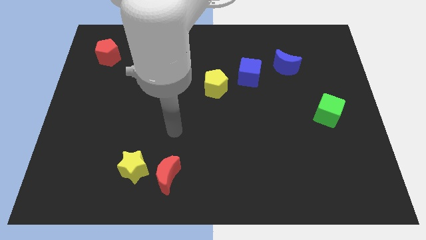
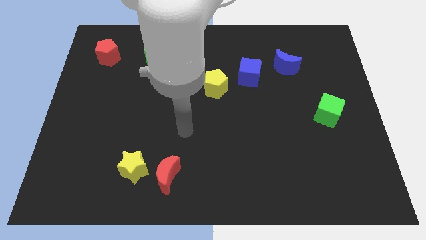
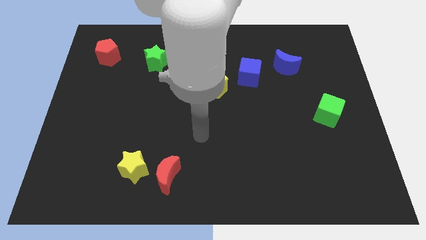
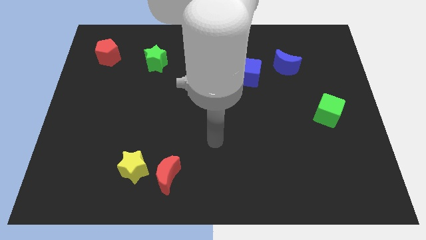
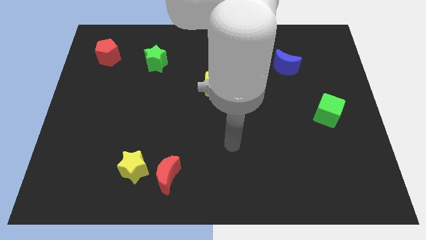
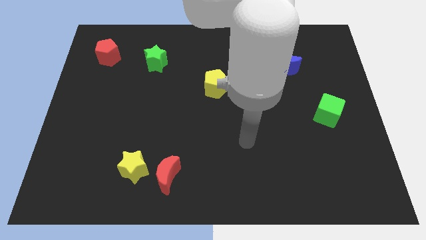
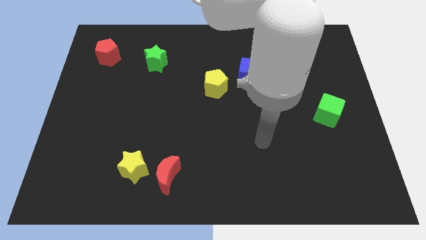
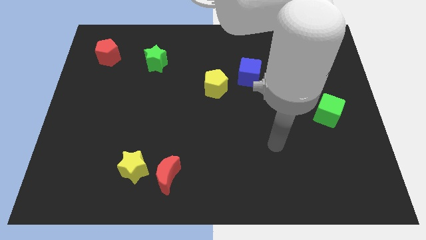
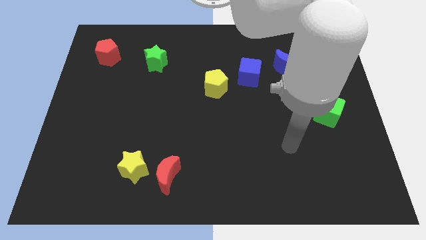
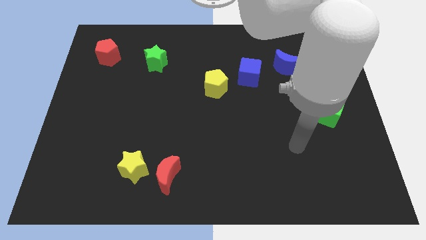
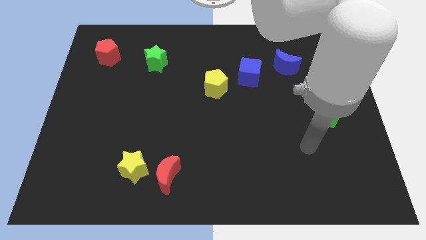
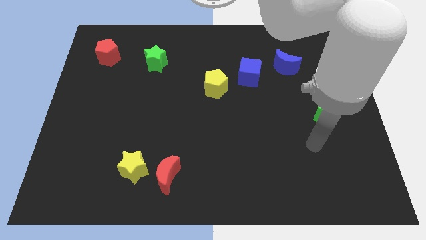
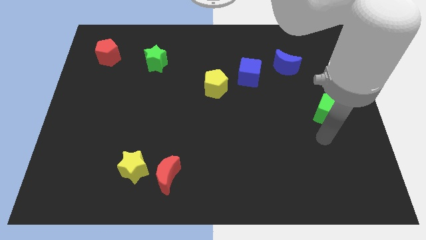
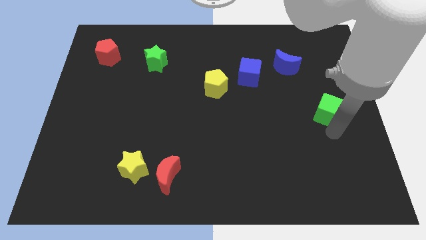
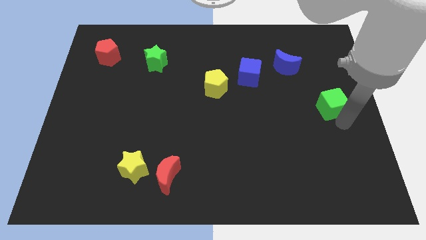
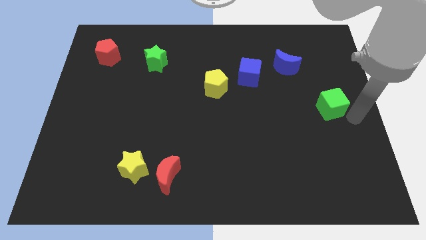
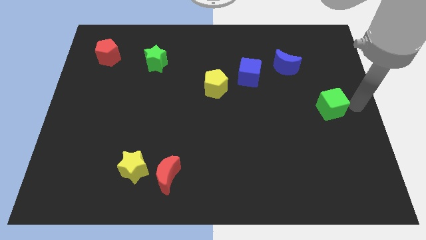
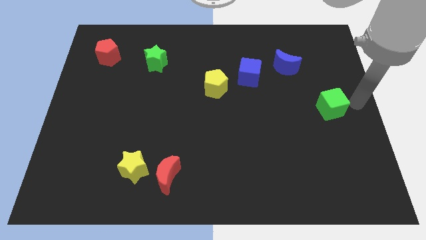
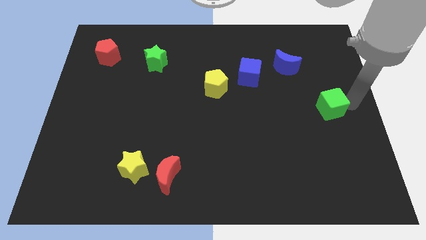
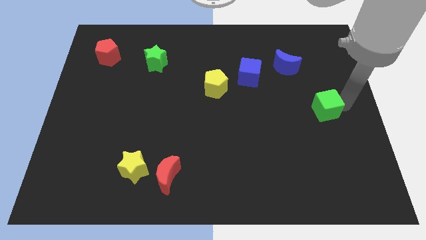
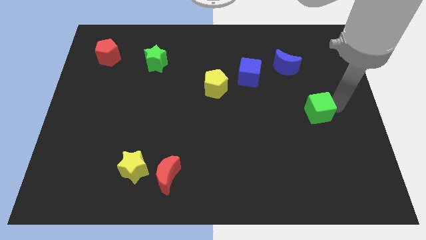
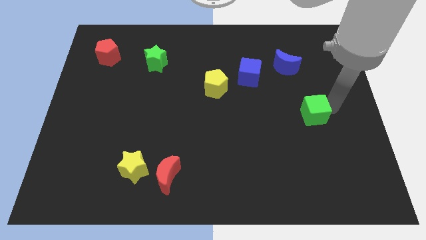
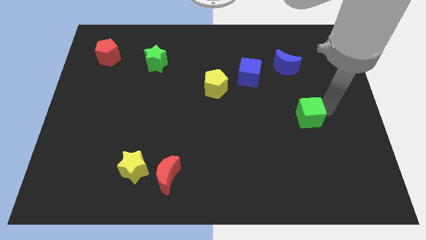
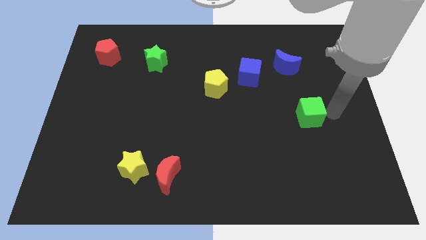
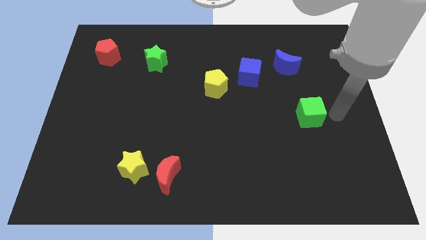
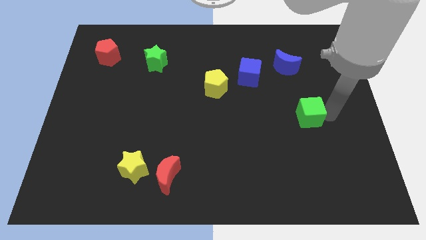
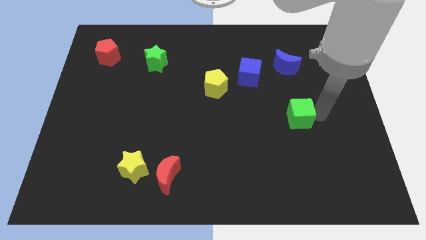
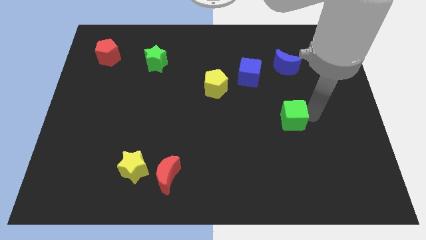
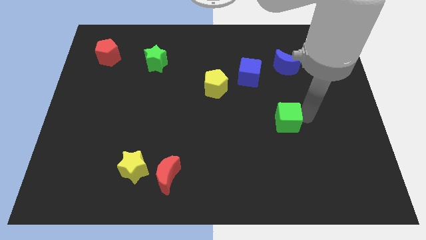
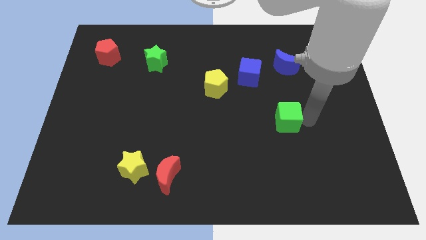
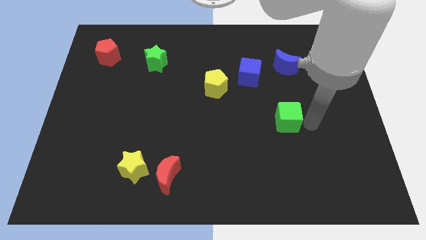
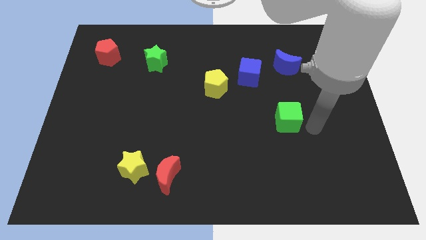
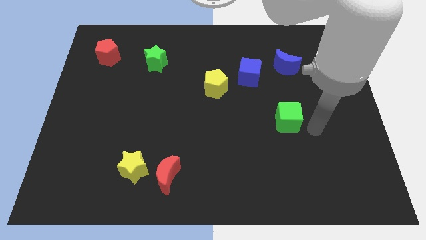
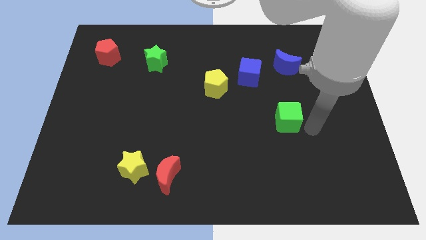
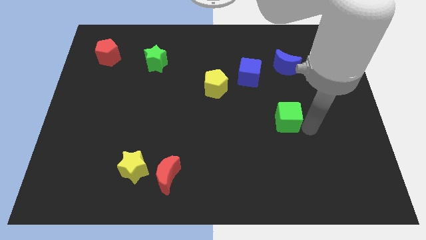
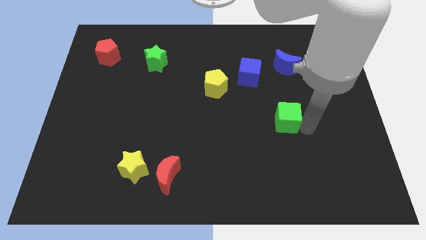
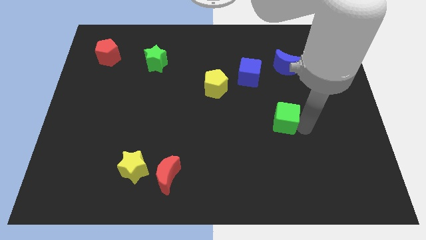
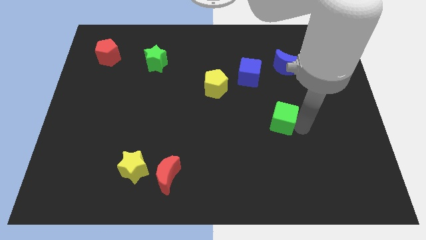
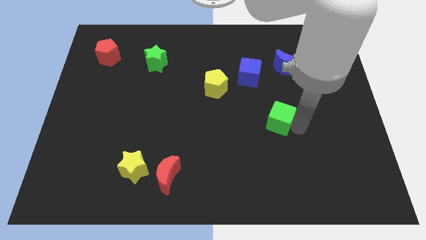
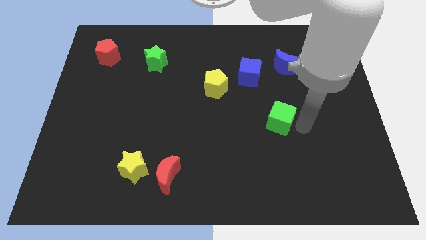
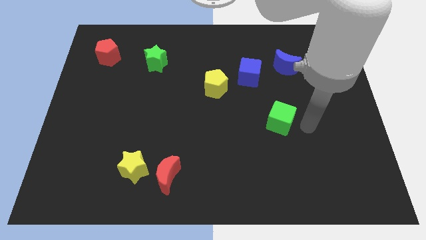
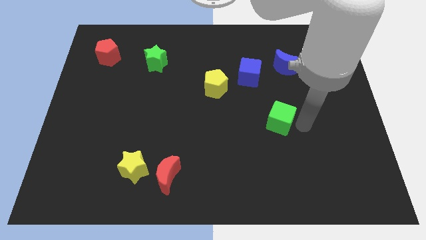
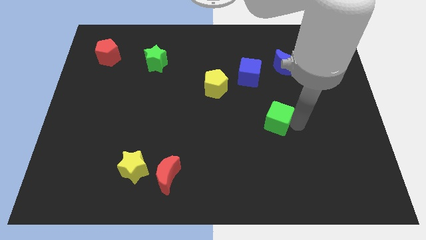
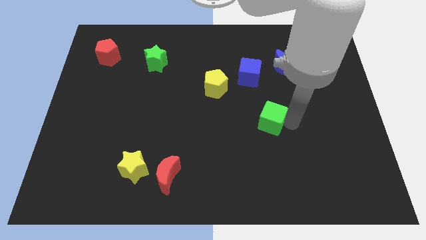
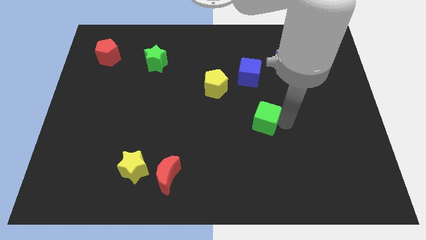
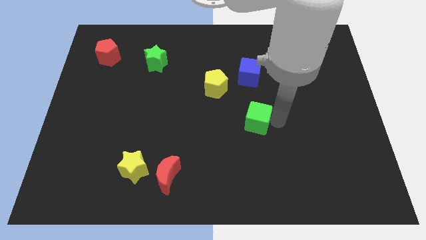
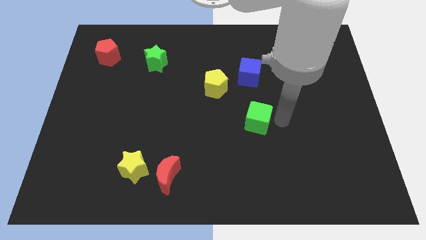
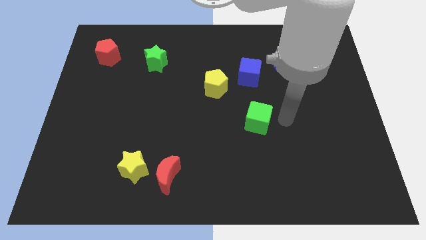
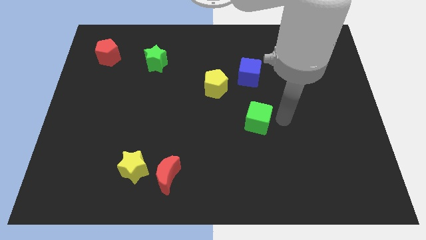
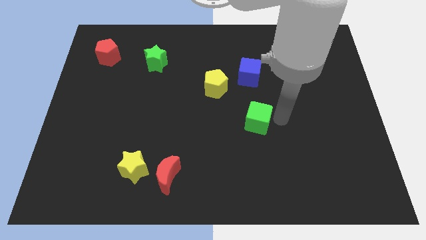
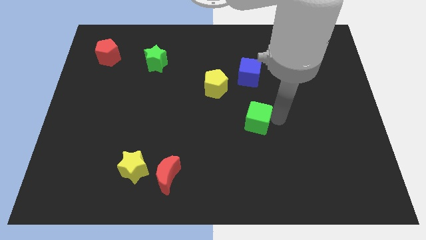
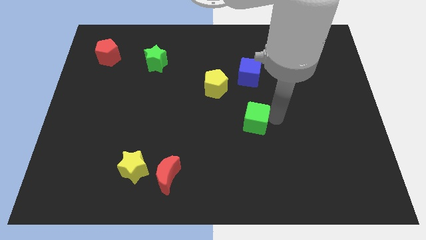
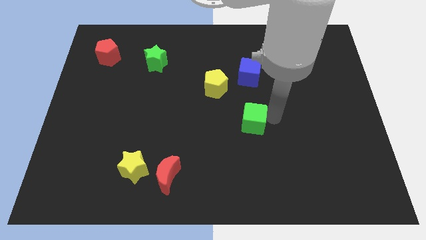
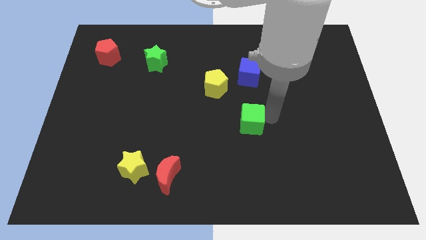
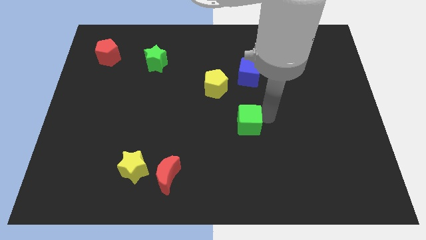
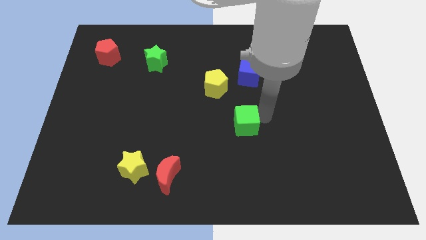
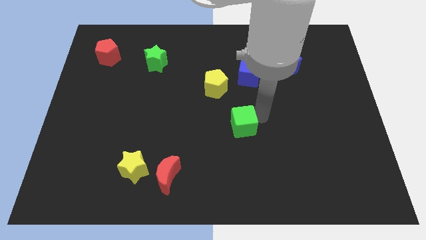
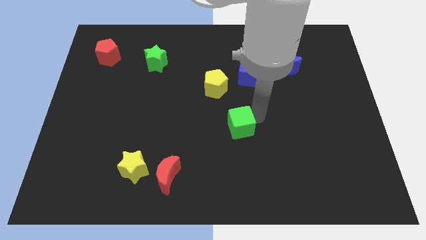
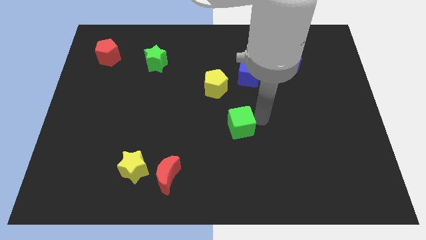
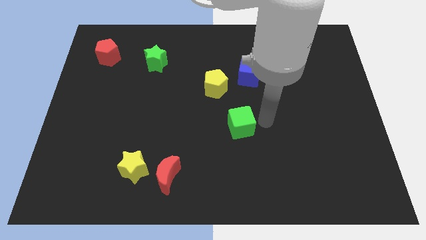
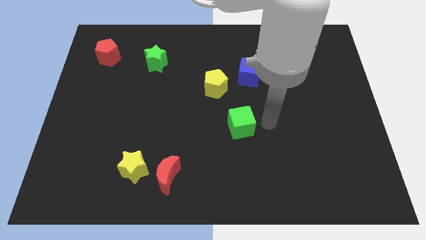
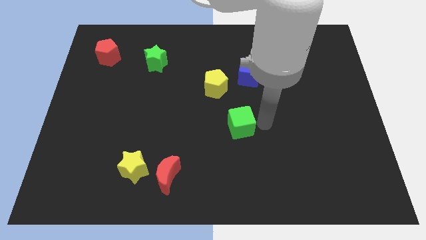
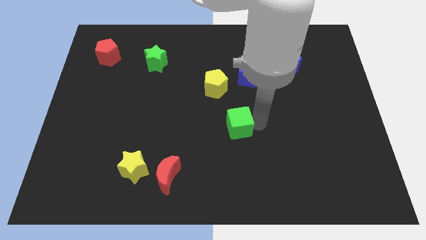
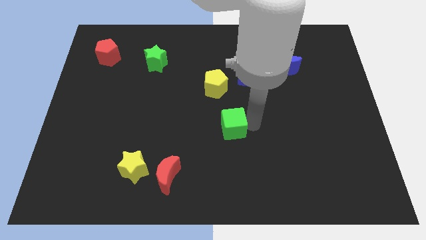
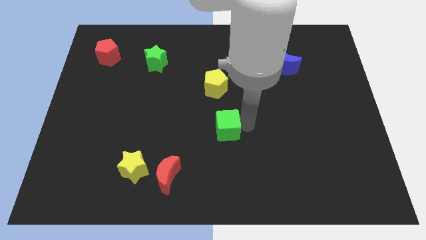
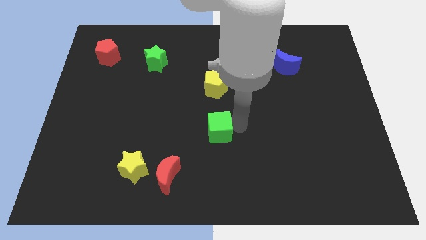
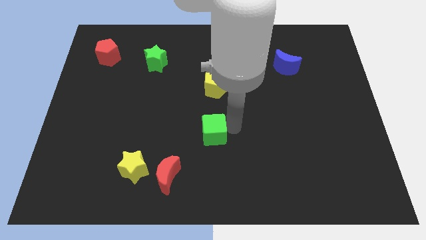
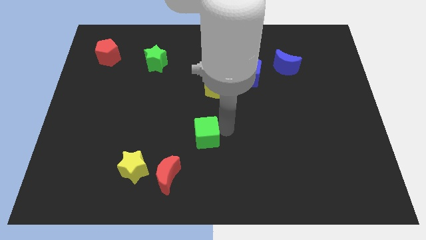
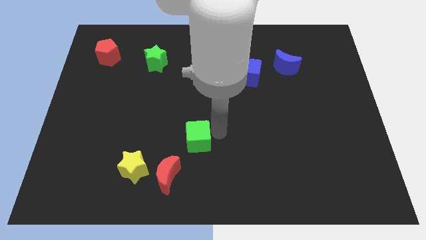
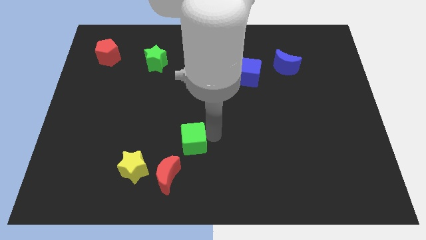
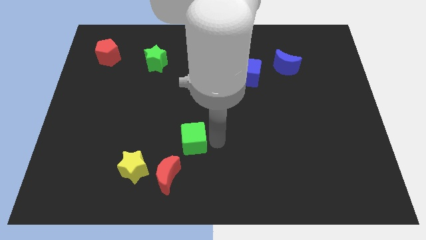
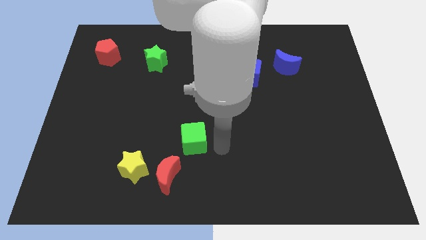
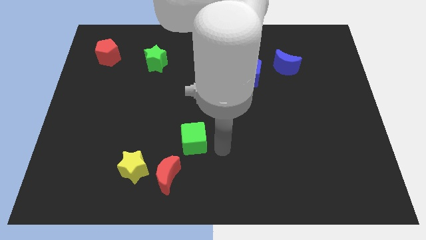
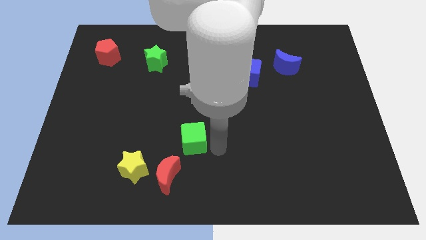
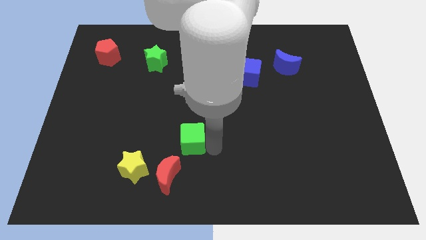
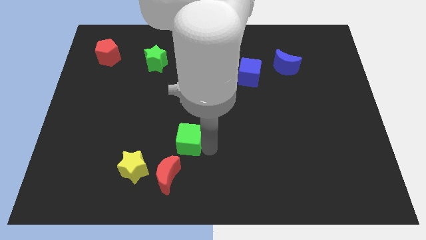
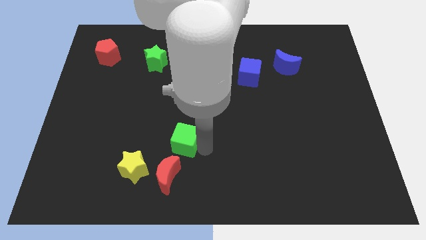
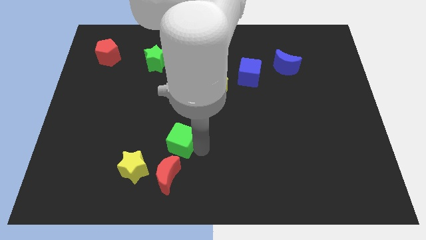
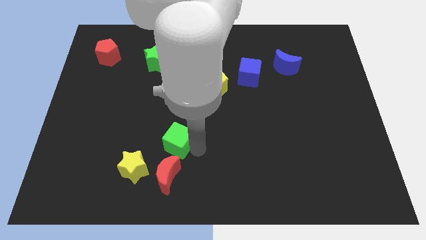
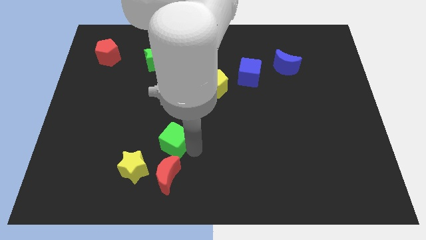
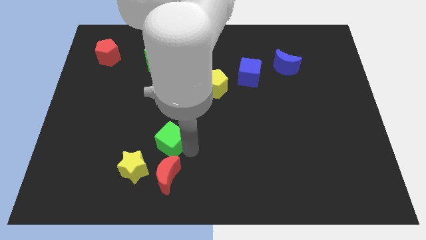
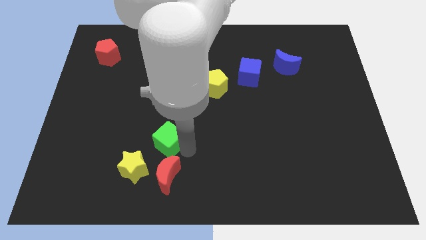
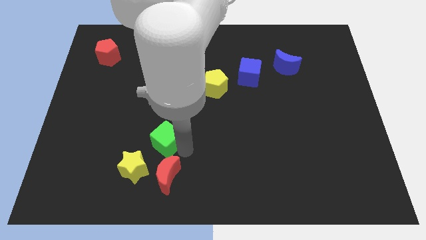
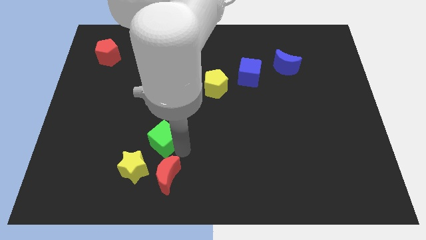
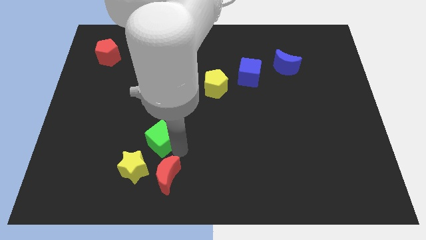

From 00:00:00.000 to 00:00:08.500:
slide the green cube to the top of the yellow star
